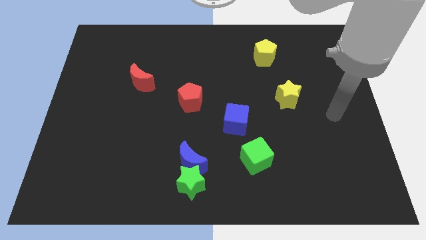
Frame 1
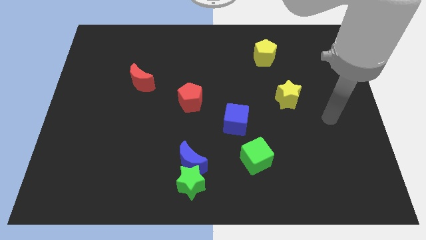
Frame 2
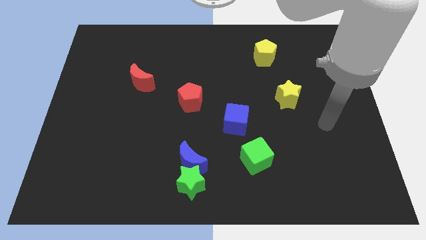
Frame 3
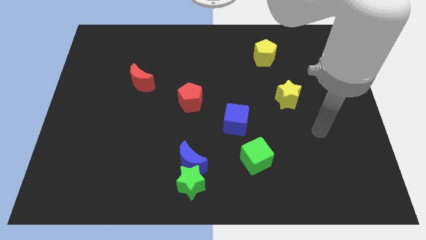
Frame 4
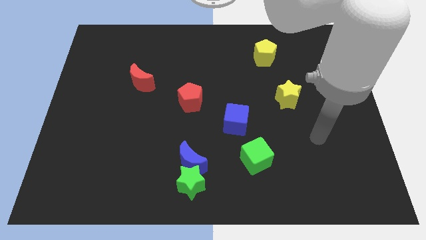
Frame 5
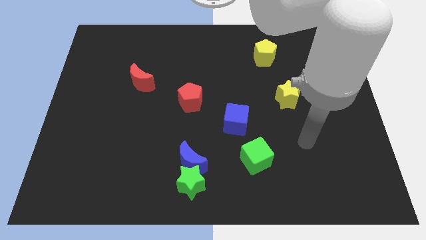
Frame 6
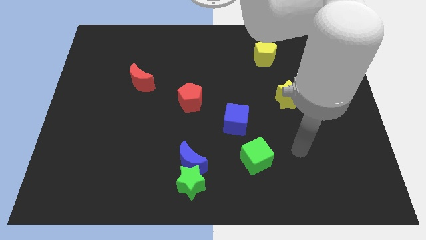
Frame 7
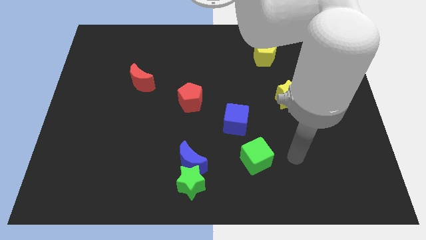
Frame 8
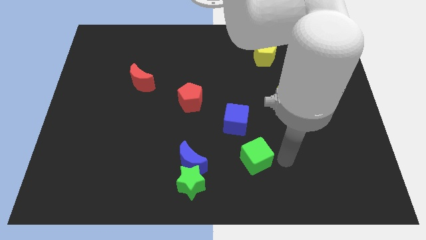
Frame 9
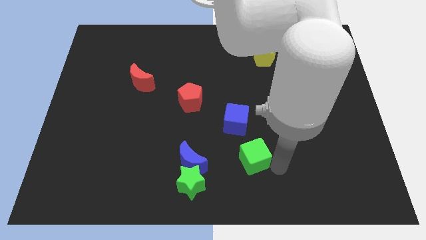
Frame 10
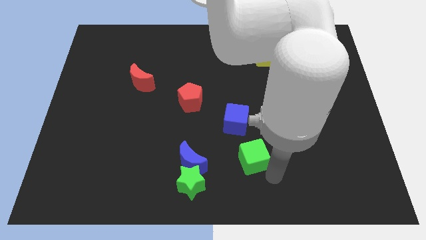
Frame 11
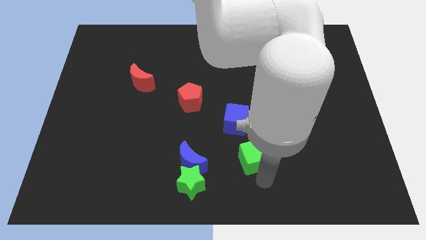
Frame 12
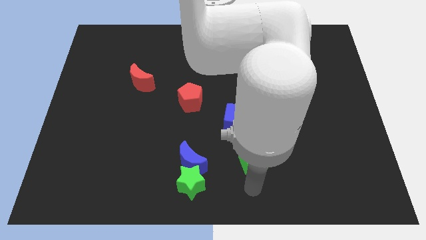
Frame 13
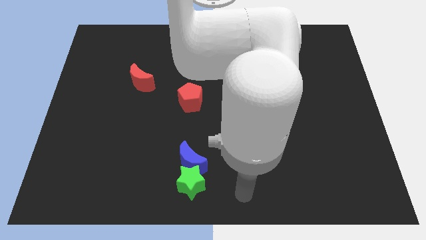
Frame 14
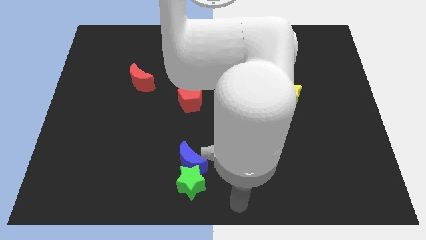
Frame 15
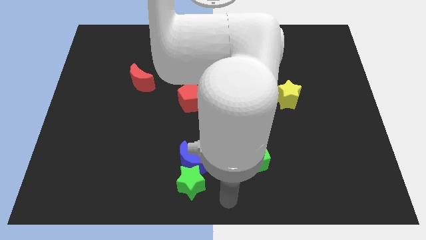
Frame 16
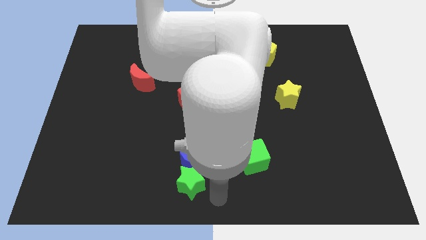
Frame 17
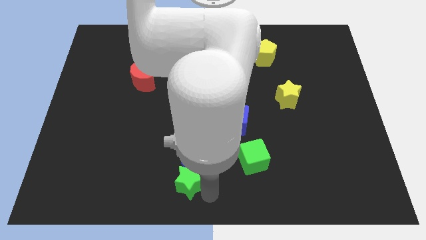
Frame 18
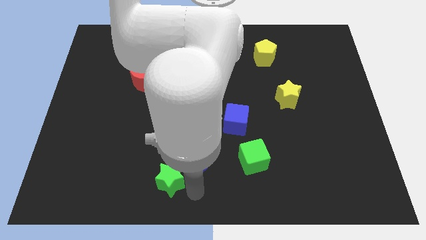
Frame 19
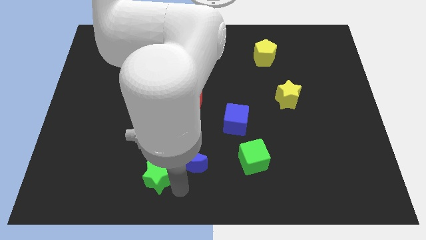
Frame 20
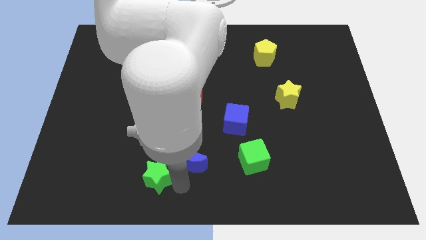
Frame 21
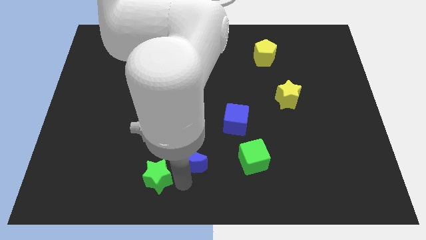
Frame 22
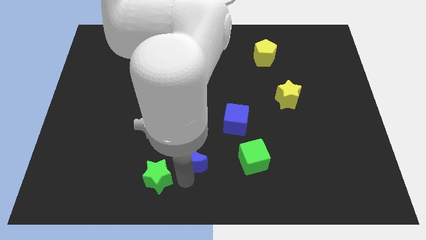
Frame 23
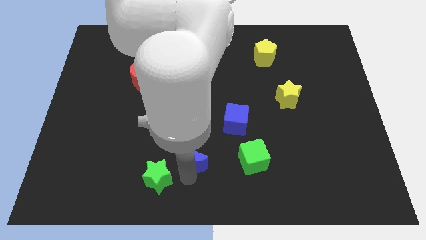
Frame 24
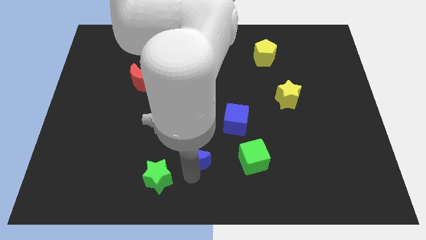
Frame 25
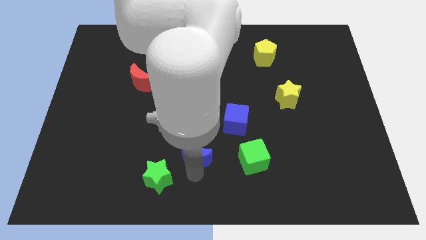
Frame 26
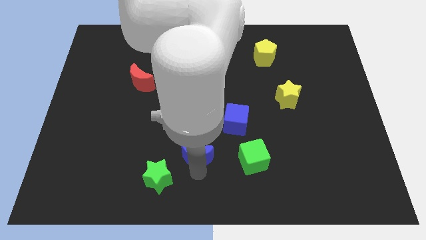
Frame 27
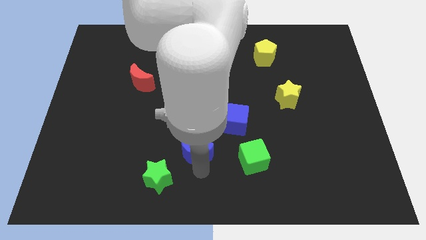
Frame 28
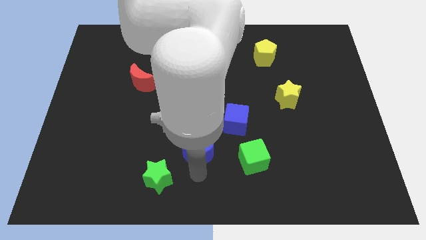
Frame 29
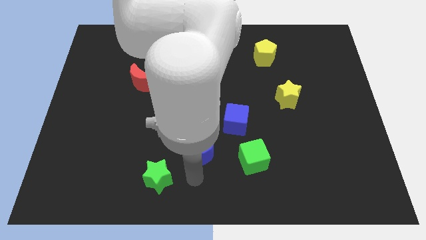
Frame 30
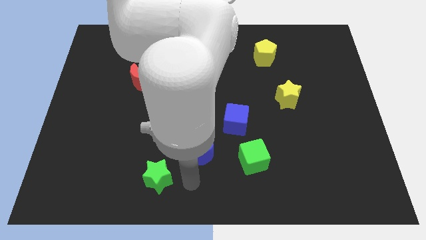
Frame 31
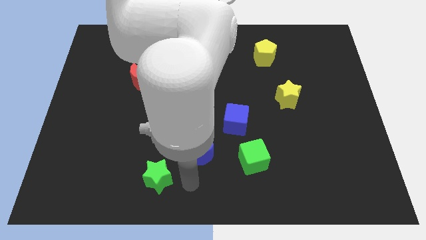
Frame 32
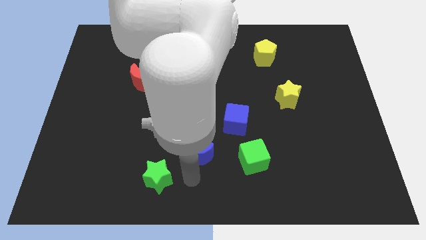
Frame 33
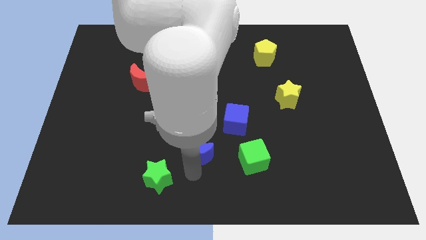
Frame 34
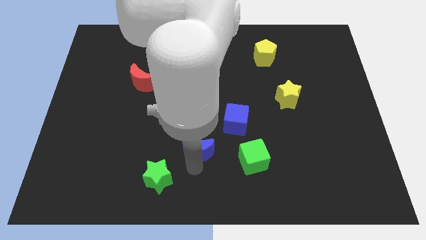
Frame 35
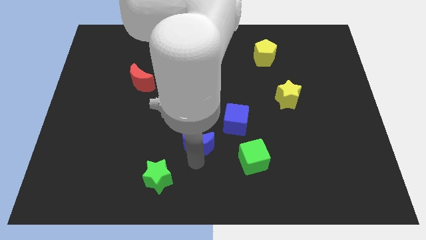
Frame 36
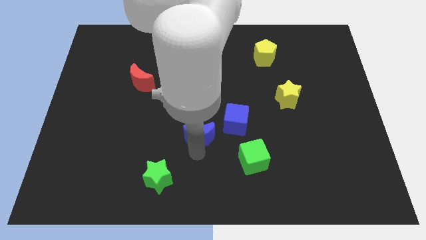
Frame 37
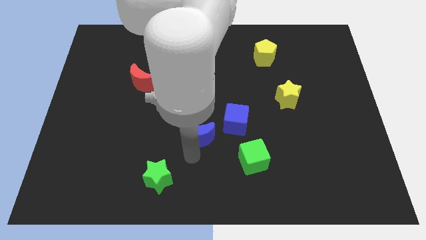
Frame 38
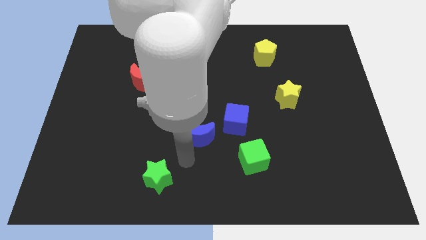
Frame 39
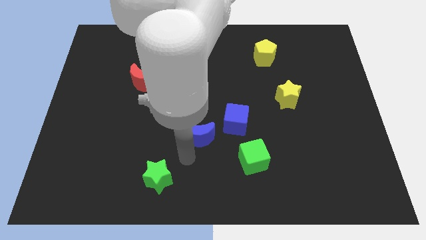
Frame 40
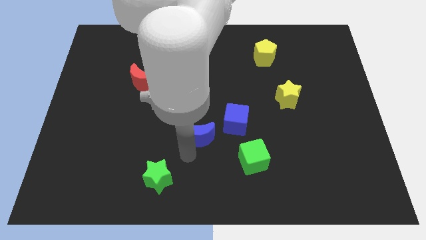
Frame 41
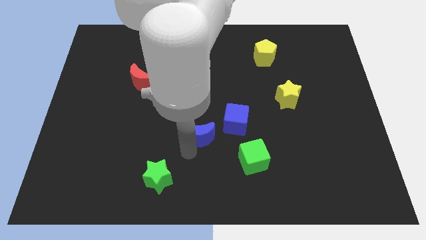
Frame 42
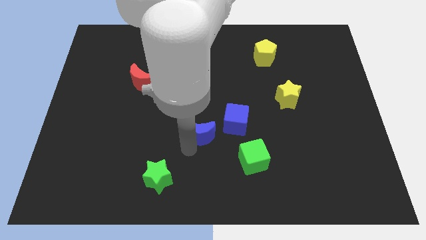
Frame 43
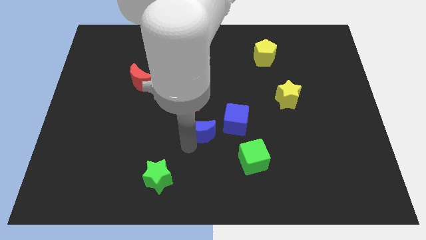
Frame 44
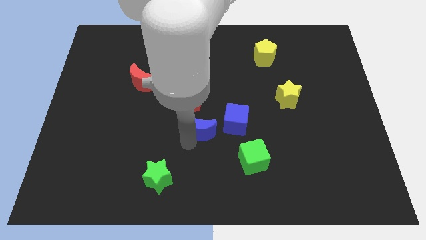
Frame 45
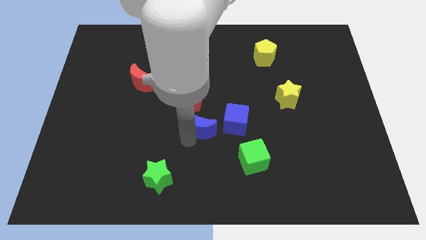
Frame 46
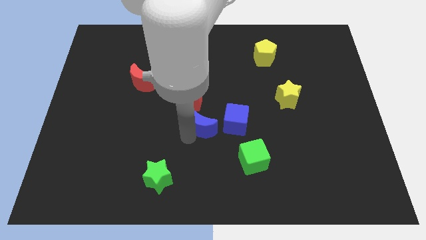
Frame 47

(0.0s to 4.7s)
slide the blue moon diagonally upwards and to the right a little bit

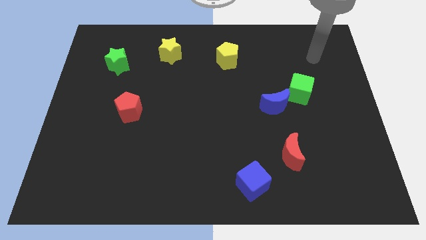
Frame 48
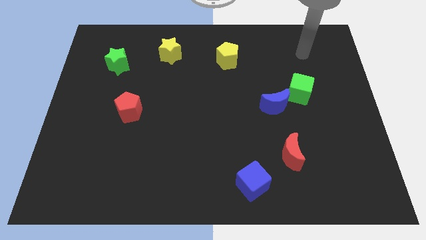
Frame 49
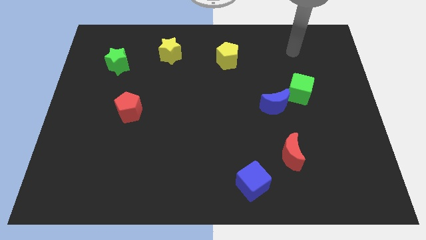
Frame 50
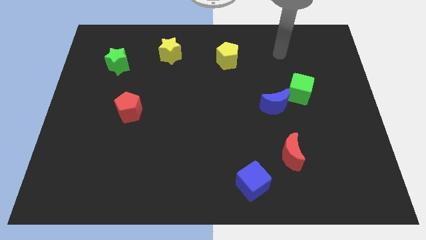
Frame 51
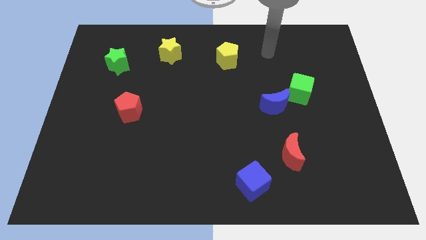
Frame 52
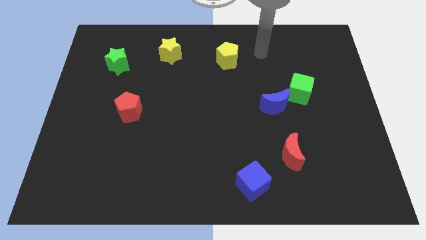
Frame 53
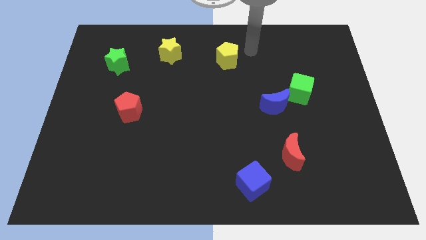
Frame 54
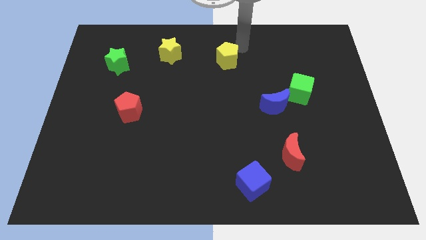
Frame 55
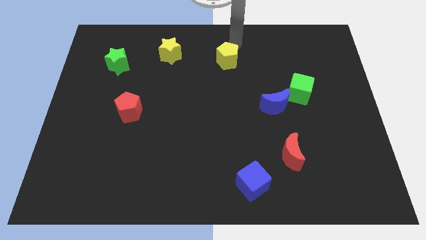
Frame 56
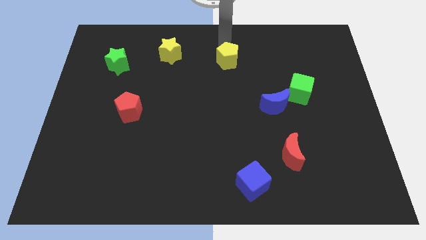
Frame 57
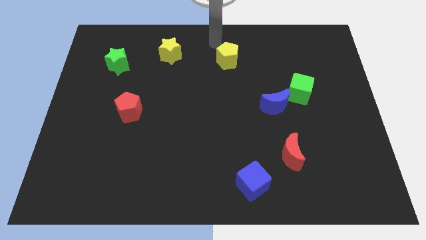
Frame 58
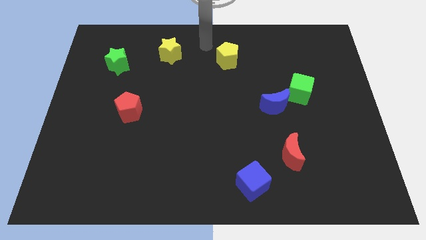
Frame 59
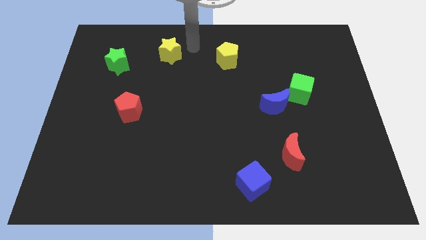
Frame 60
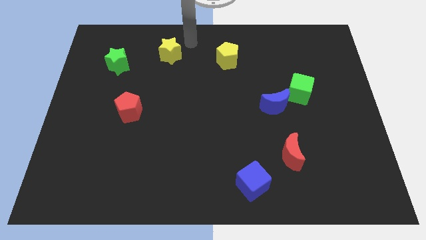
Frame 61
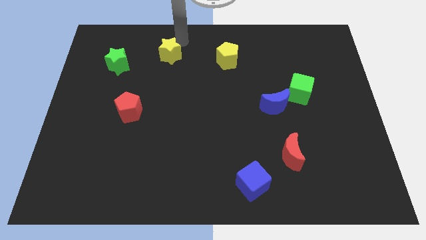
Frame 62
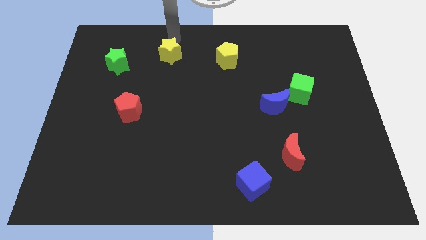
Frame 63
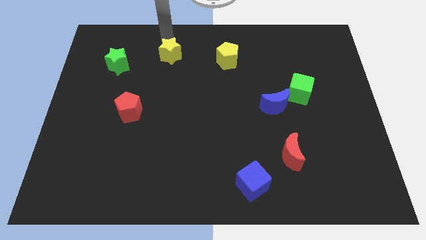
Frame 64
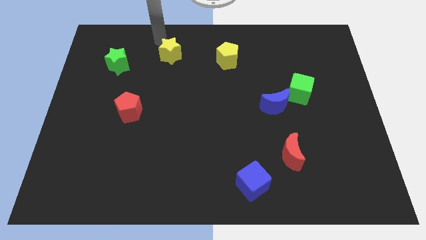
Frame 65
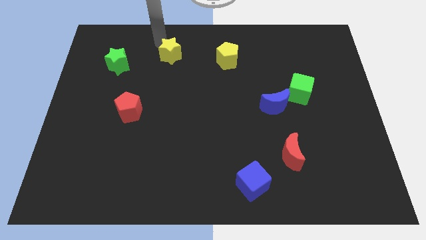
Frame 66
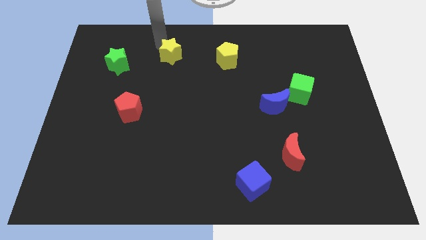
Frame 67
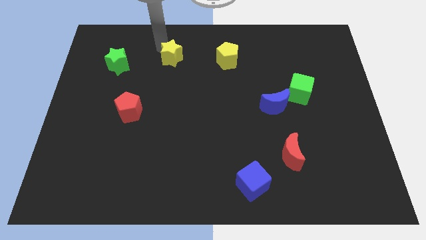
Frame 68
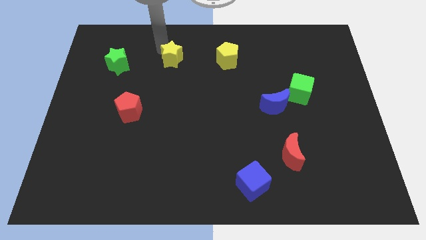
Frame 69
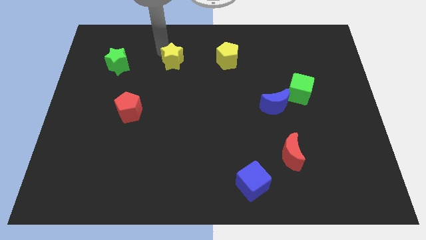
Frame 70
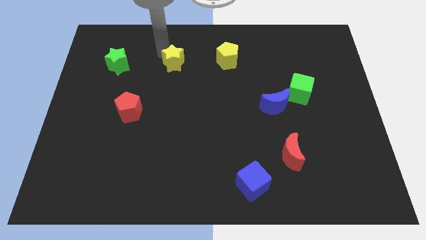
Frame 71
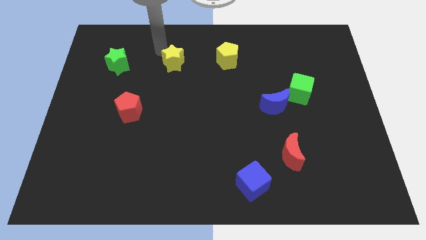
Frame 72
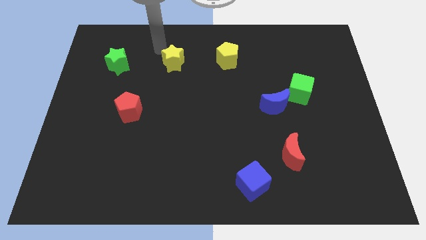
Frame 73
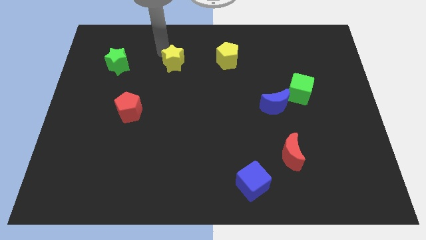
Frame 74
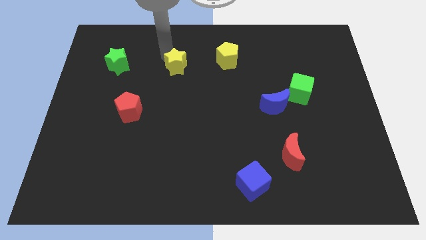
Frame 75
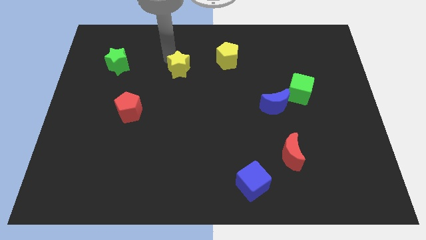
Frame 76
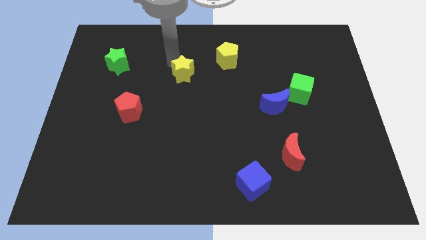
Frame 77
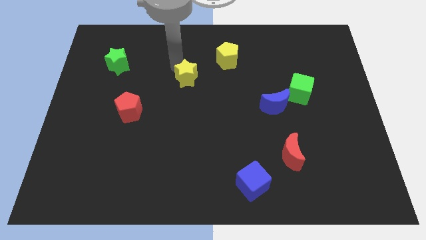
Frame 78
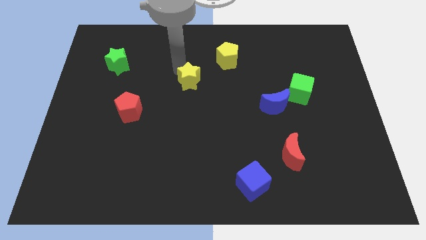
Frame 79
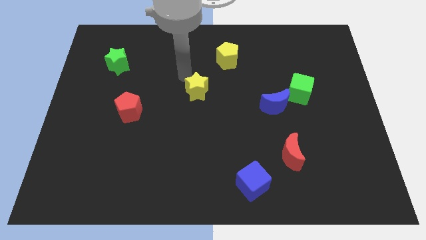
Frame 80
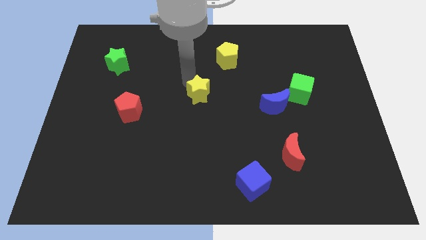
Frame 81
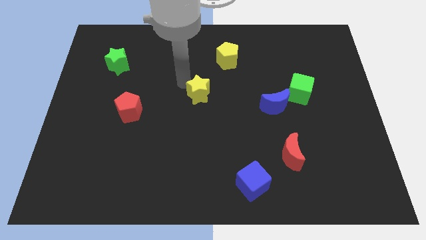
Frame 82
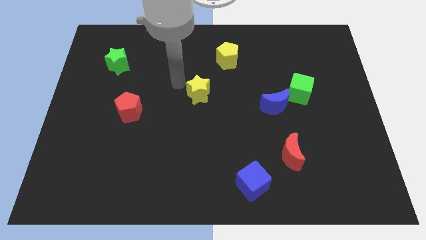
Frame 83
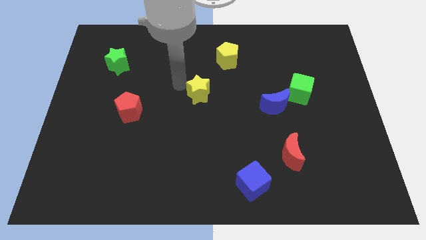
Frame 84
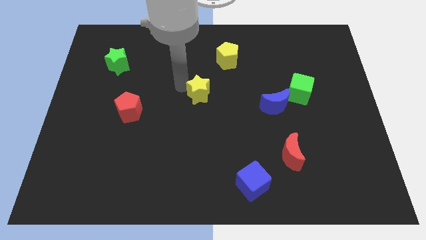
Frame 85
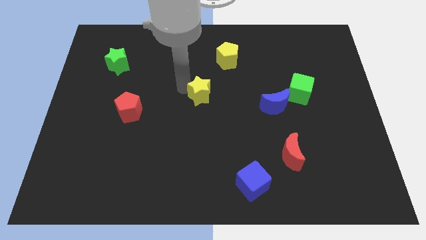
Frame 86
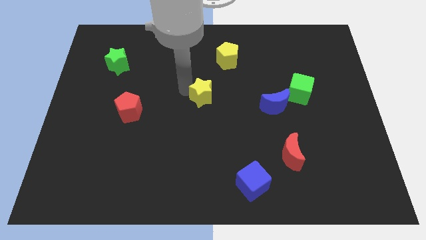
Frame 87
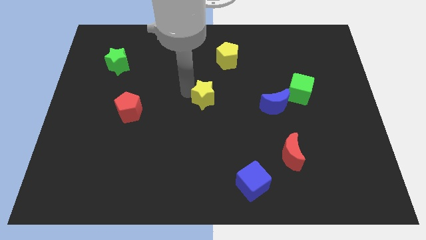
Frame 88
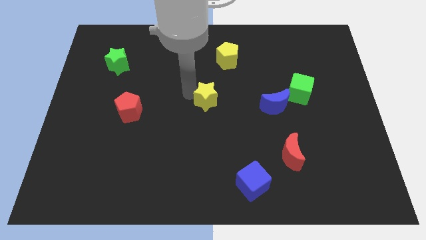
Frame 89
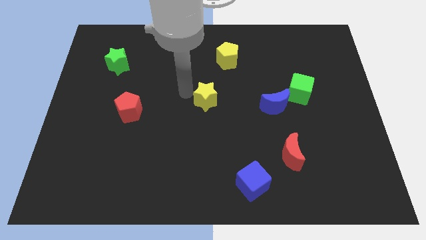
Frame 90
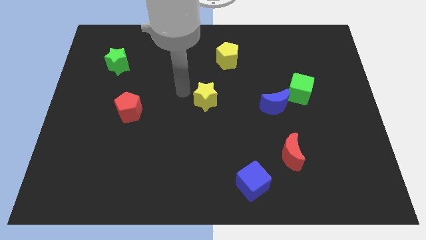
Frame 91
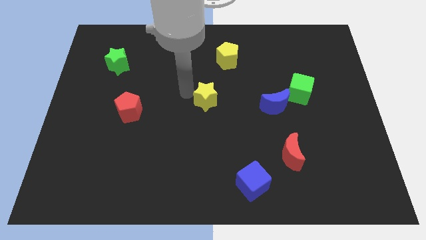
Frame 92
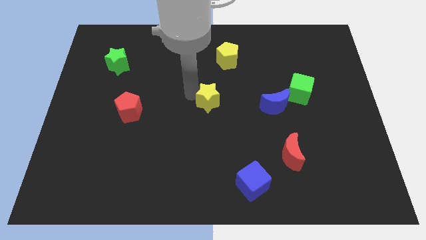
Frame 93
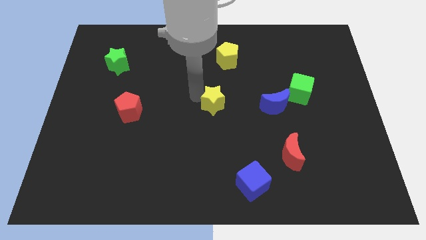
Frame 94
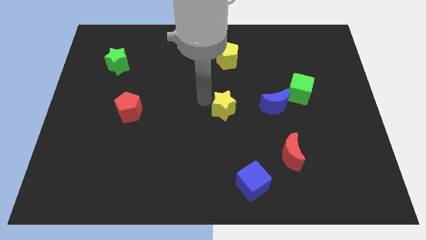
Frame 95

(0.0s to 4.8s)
move the yellow star down and then to the right
